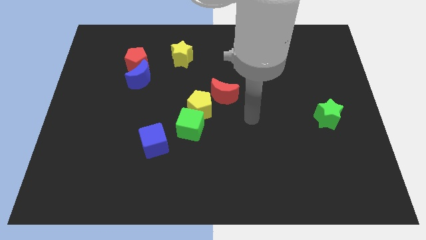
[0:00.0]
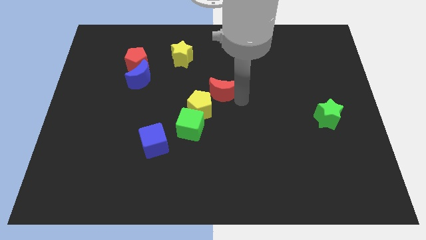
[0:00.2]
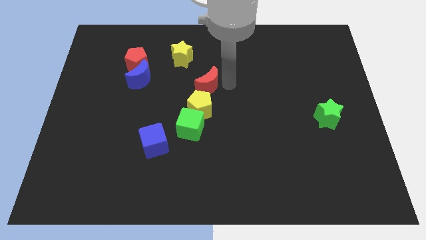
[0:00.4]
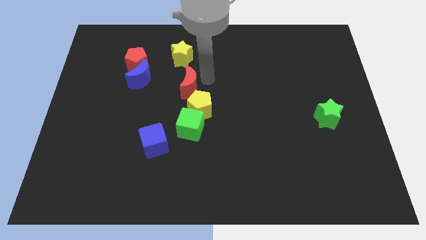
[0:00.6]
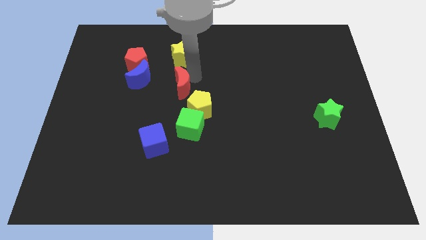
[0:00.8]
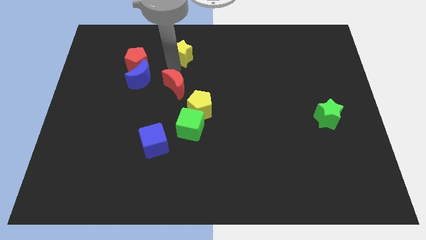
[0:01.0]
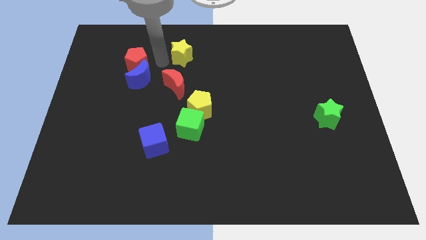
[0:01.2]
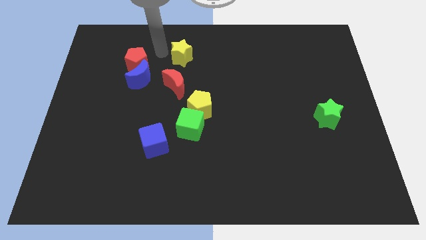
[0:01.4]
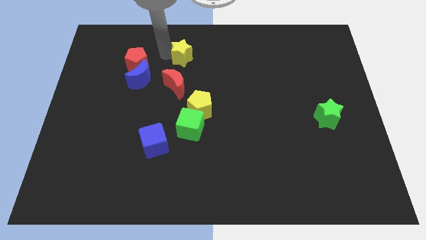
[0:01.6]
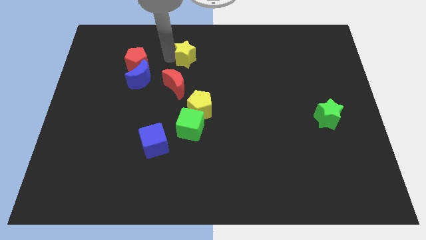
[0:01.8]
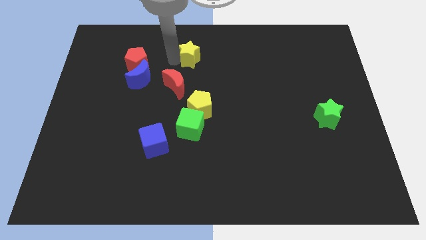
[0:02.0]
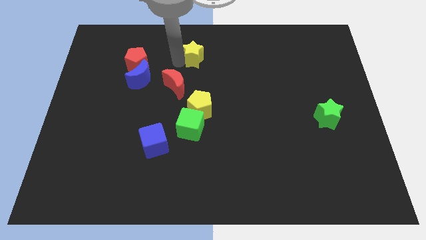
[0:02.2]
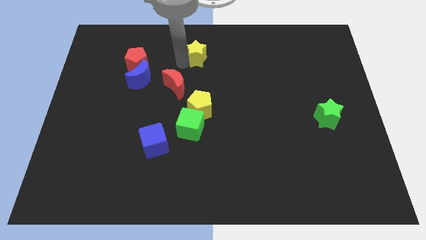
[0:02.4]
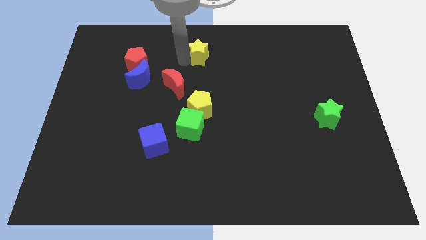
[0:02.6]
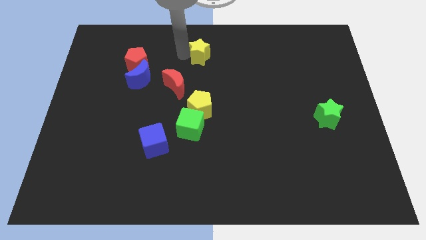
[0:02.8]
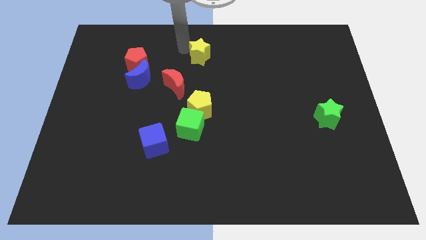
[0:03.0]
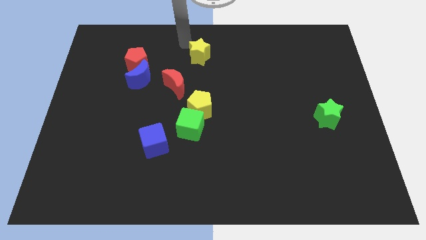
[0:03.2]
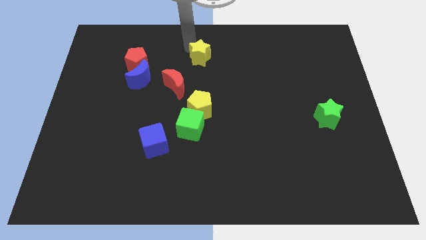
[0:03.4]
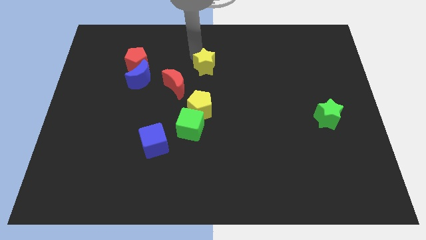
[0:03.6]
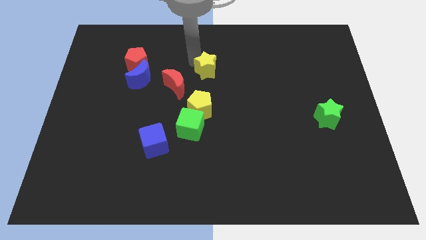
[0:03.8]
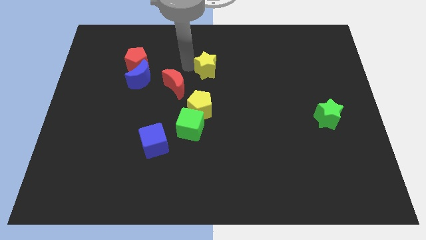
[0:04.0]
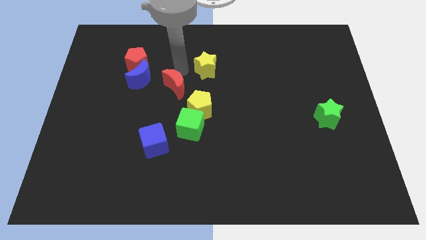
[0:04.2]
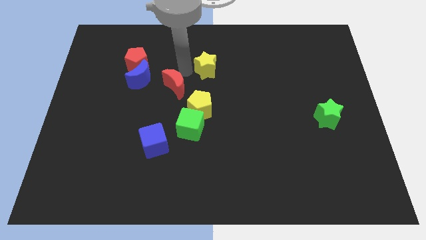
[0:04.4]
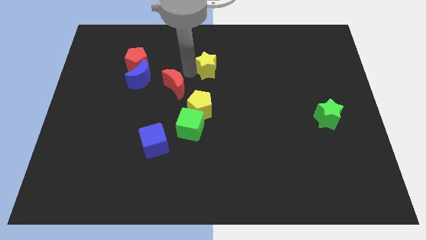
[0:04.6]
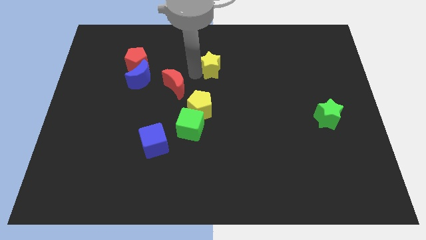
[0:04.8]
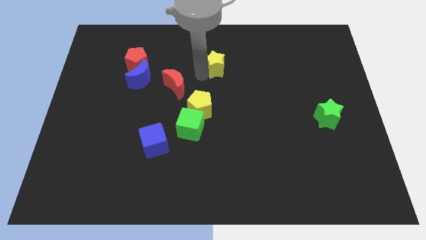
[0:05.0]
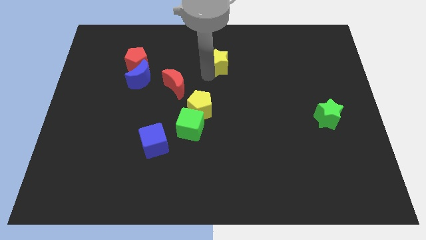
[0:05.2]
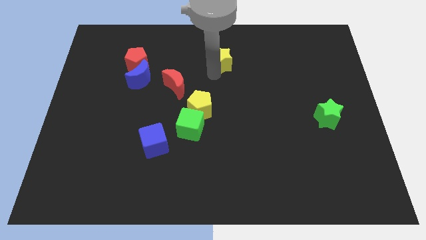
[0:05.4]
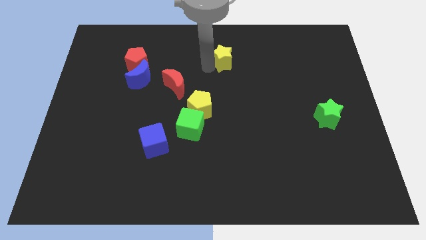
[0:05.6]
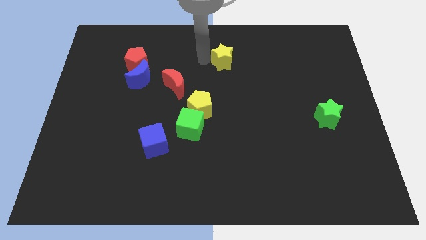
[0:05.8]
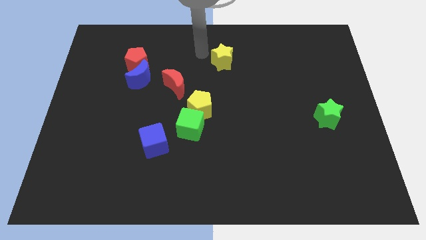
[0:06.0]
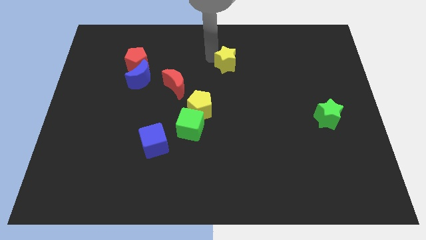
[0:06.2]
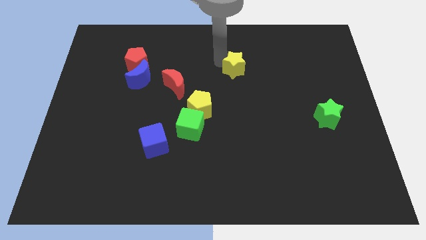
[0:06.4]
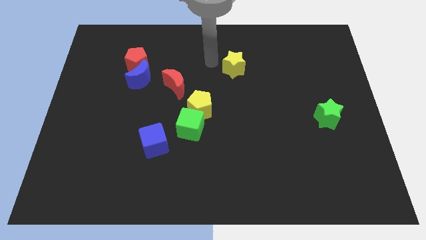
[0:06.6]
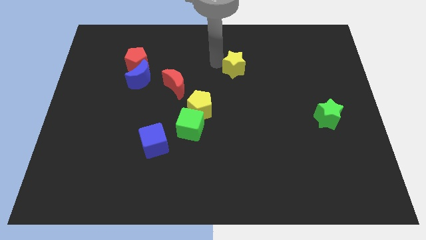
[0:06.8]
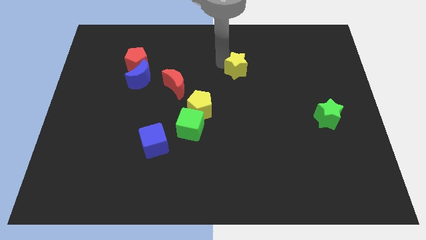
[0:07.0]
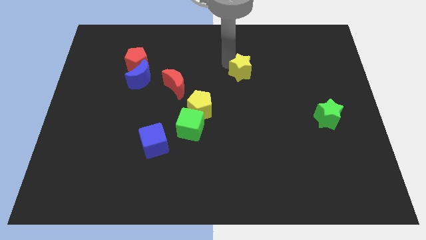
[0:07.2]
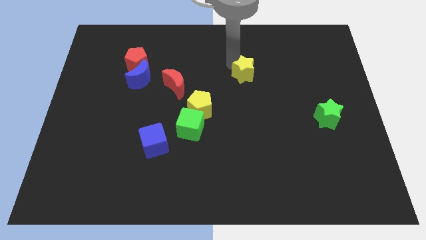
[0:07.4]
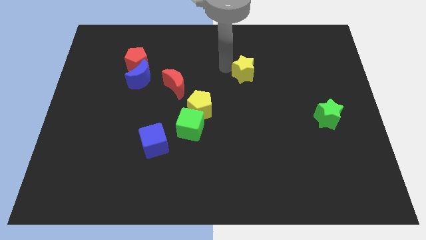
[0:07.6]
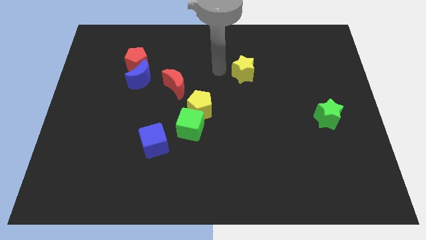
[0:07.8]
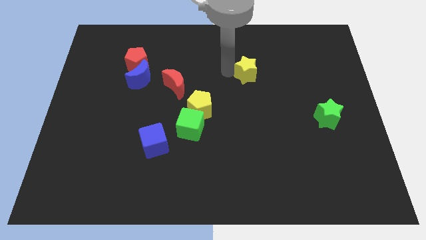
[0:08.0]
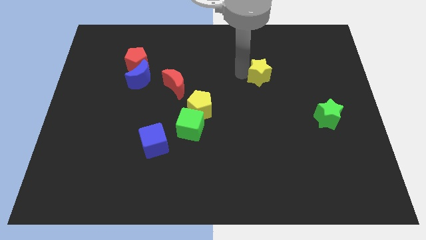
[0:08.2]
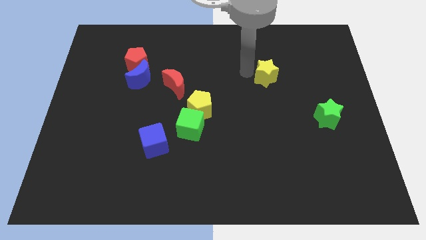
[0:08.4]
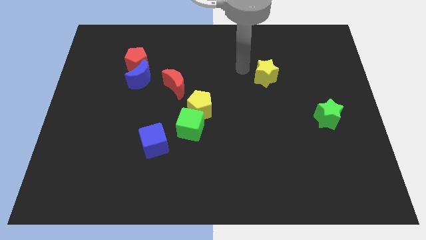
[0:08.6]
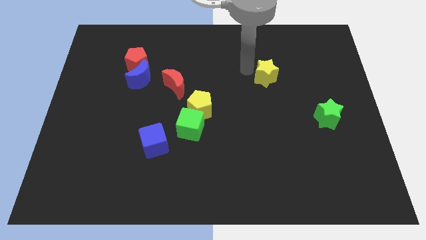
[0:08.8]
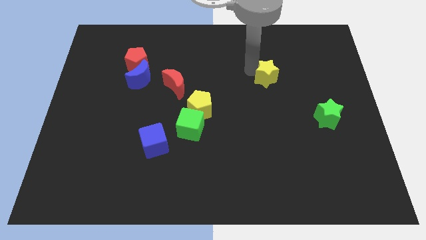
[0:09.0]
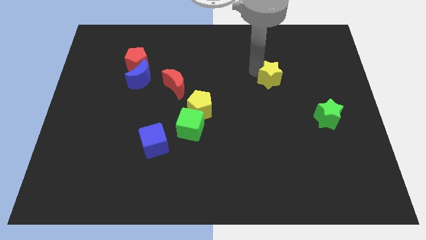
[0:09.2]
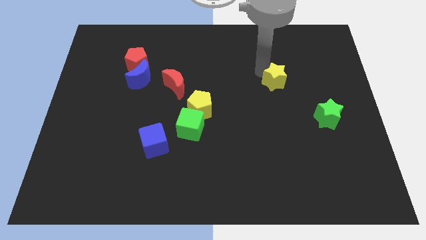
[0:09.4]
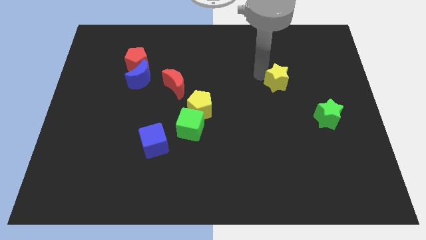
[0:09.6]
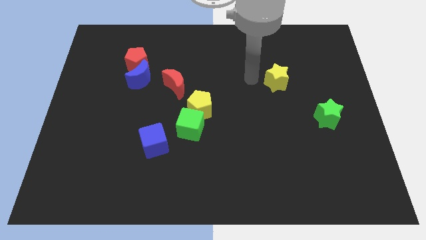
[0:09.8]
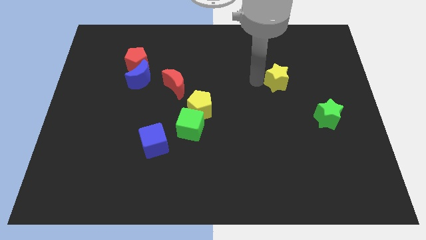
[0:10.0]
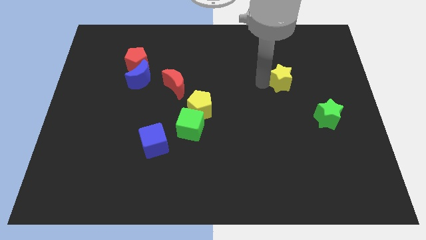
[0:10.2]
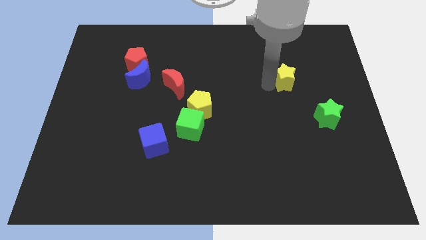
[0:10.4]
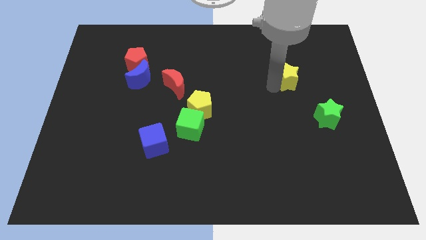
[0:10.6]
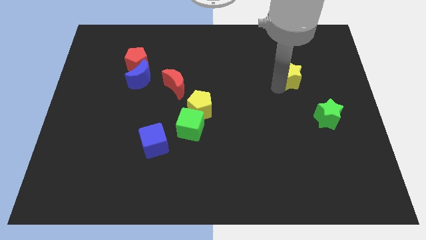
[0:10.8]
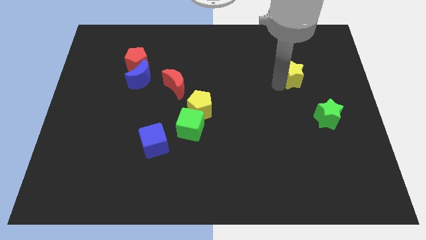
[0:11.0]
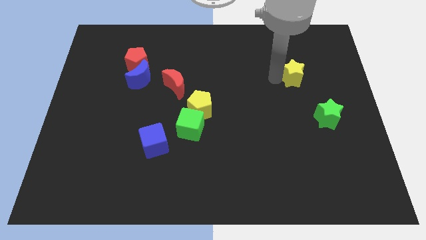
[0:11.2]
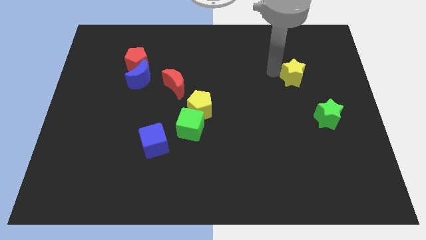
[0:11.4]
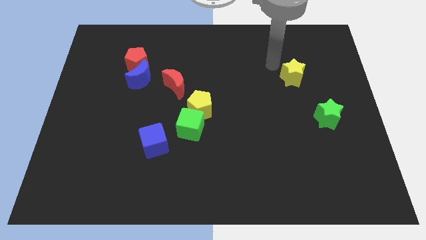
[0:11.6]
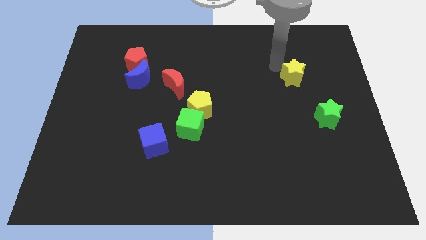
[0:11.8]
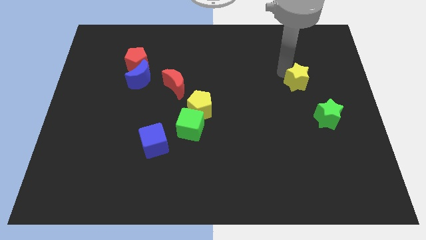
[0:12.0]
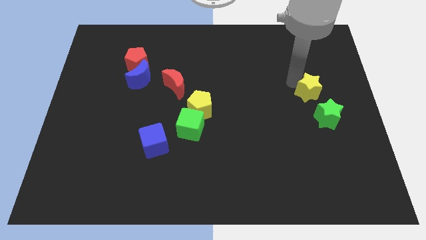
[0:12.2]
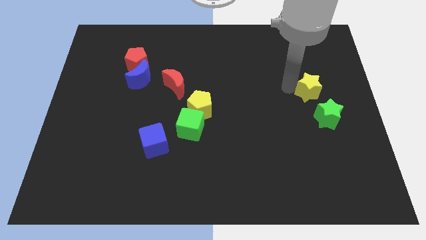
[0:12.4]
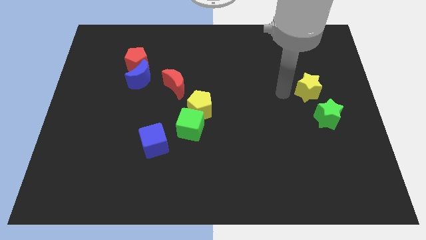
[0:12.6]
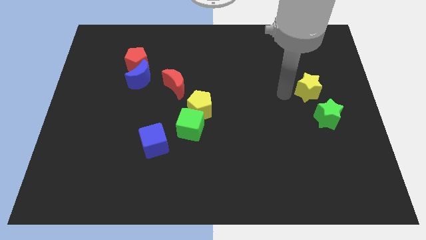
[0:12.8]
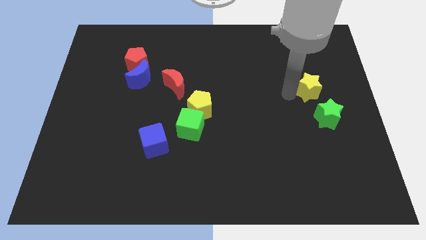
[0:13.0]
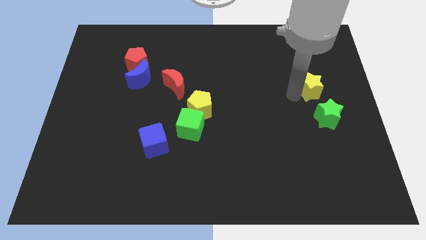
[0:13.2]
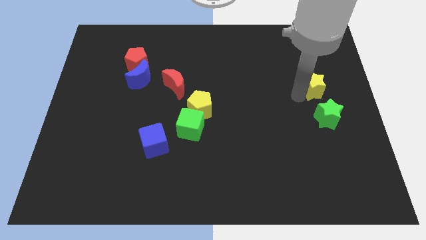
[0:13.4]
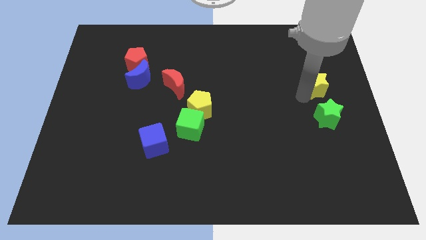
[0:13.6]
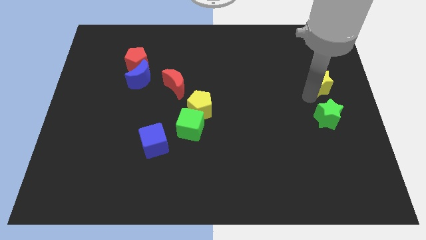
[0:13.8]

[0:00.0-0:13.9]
move the yellow star to the center right

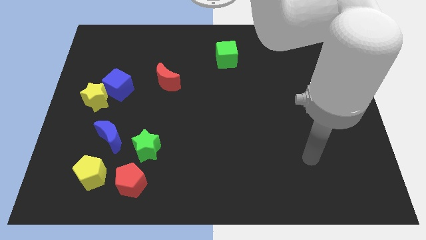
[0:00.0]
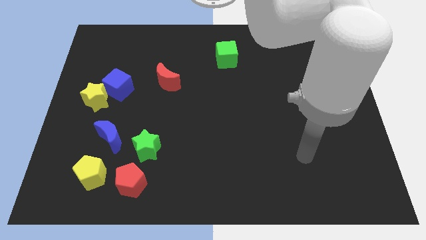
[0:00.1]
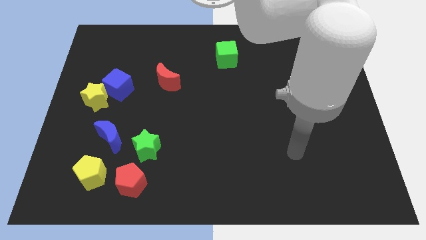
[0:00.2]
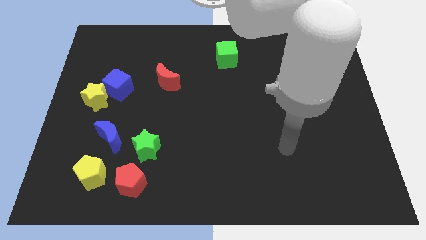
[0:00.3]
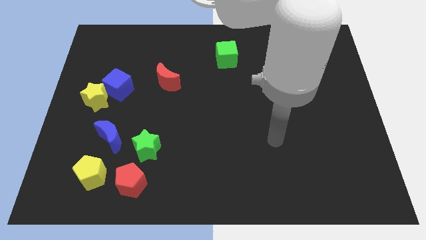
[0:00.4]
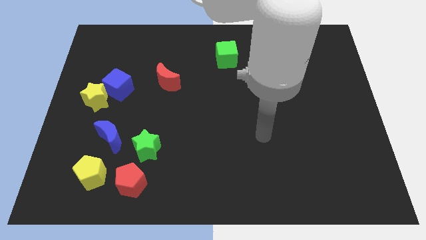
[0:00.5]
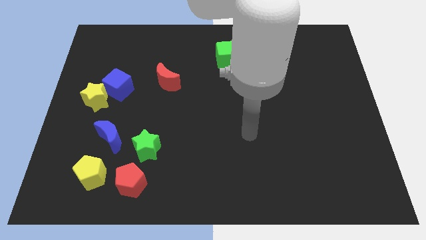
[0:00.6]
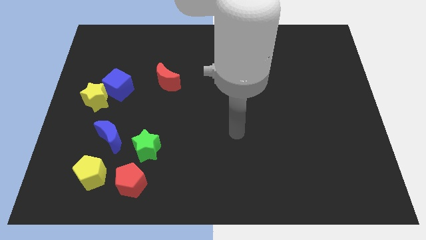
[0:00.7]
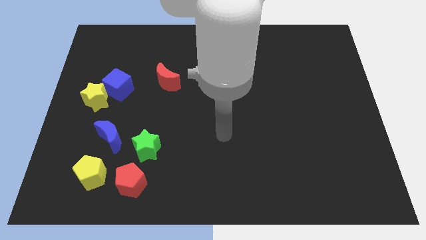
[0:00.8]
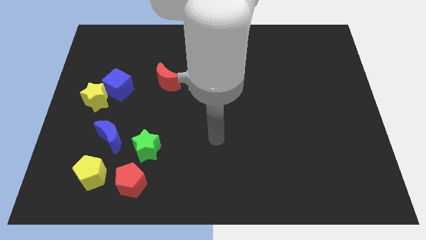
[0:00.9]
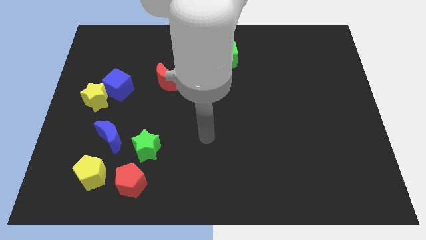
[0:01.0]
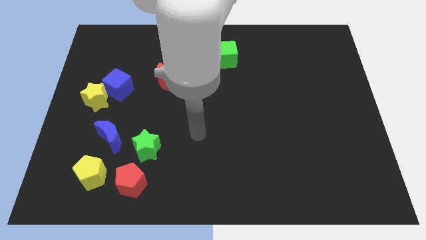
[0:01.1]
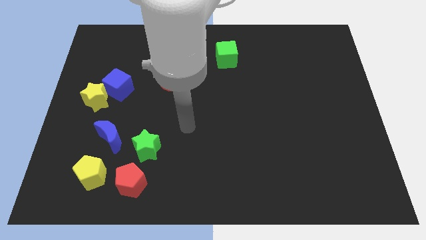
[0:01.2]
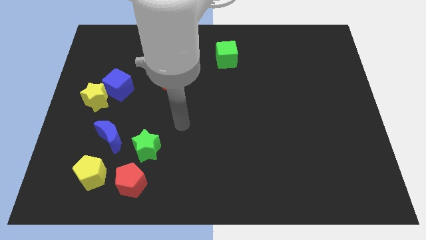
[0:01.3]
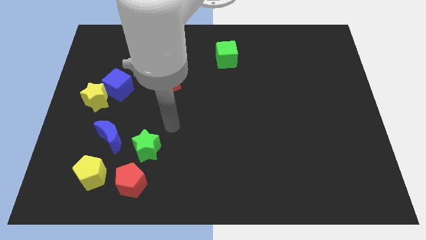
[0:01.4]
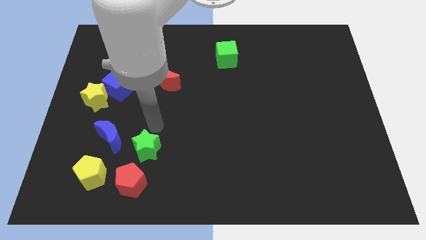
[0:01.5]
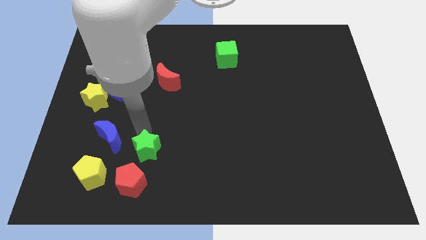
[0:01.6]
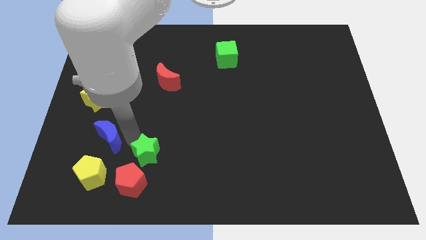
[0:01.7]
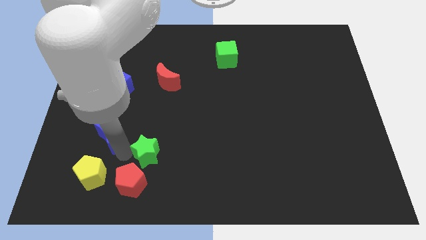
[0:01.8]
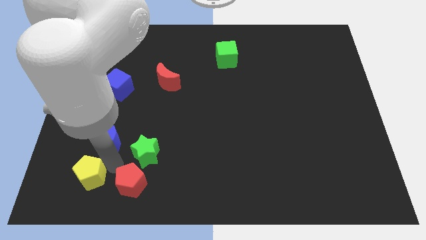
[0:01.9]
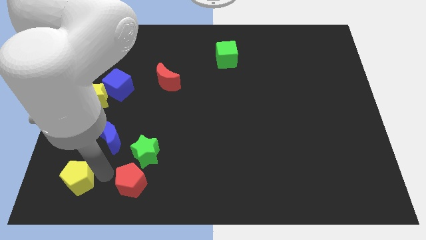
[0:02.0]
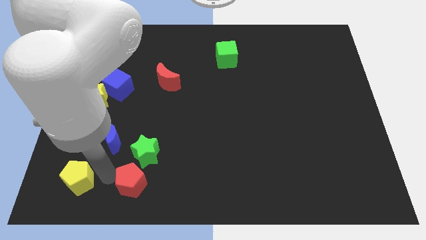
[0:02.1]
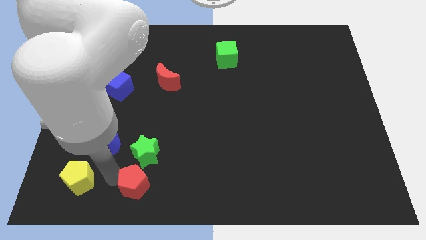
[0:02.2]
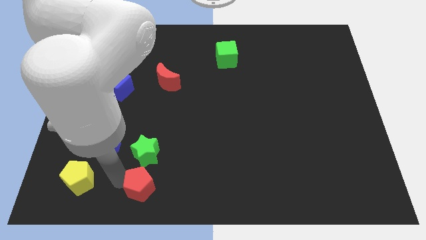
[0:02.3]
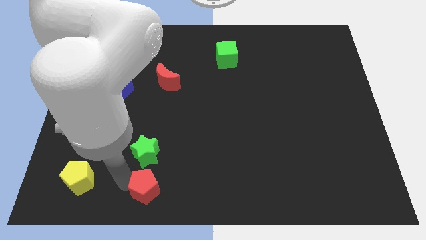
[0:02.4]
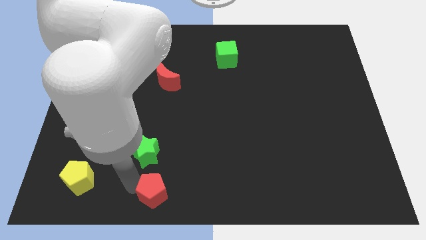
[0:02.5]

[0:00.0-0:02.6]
slide the red pentagon to the bottom side
